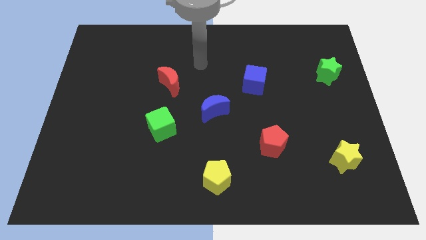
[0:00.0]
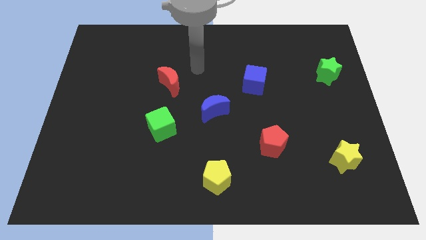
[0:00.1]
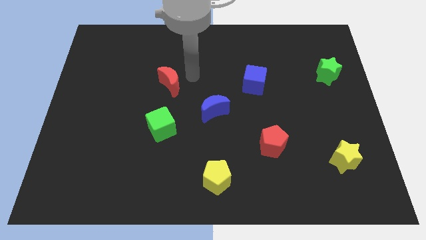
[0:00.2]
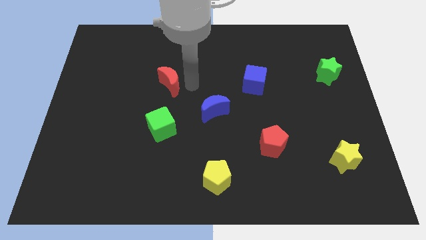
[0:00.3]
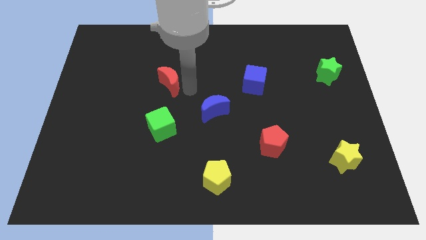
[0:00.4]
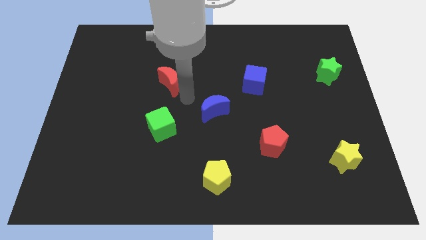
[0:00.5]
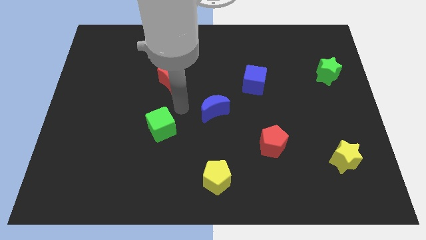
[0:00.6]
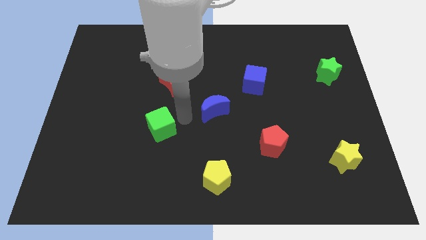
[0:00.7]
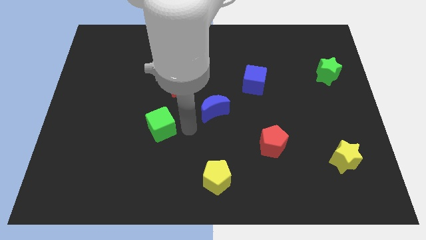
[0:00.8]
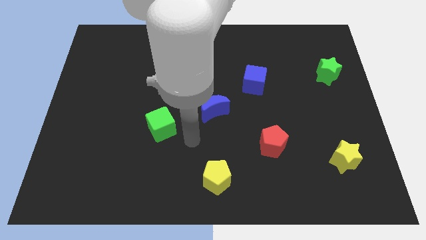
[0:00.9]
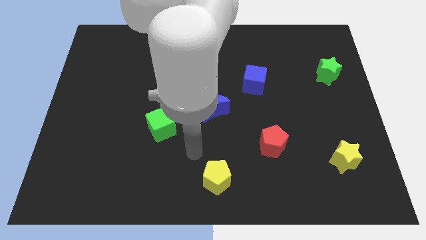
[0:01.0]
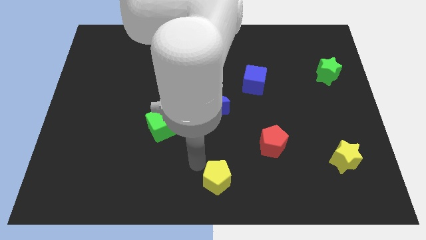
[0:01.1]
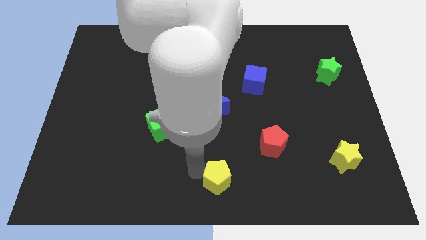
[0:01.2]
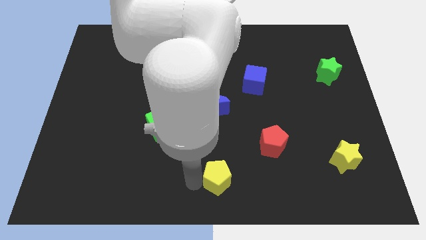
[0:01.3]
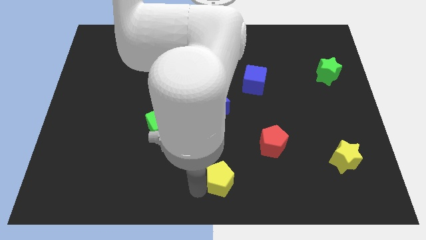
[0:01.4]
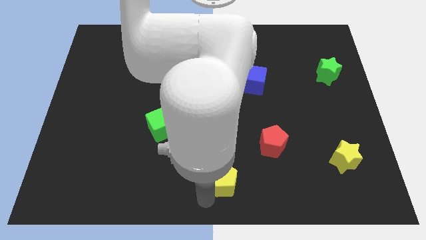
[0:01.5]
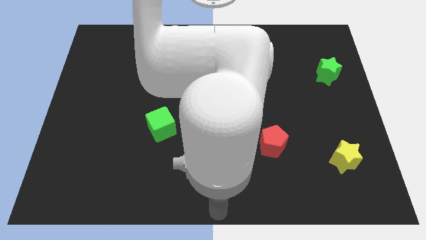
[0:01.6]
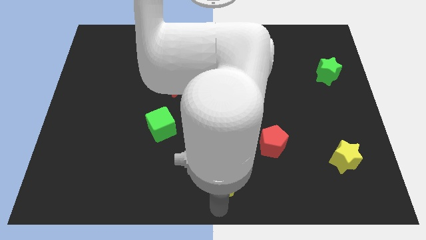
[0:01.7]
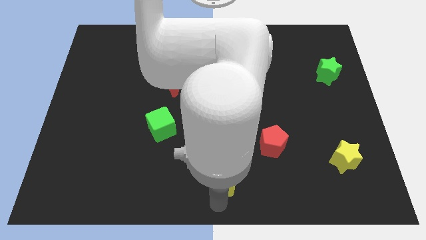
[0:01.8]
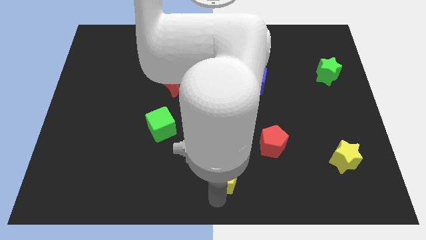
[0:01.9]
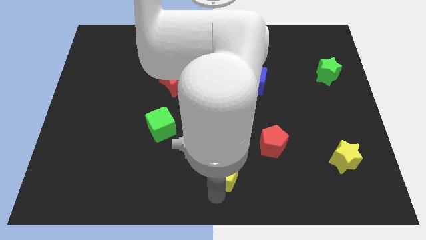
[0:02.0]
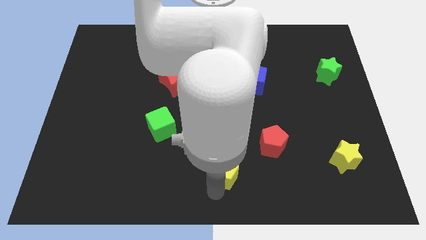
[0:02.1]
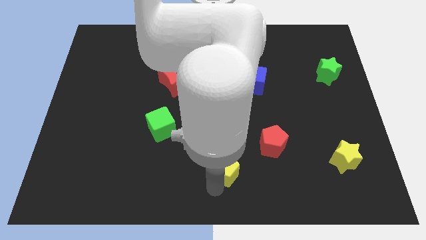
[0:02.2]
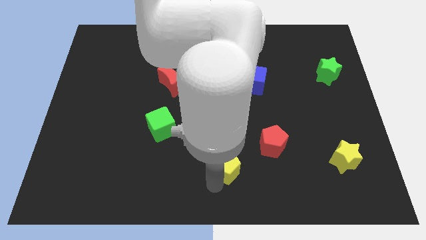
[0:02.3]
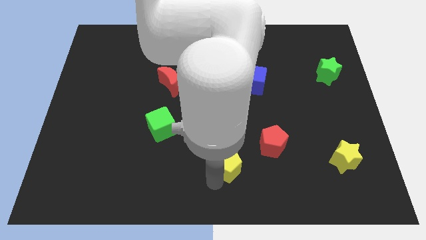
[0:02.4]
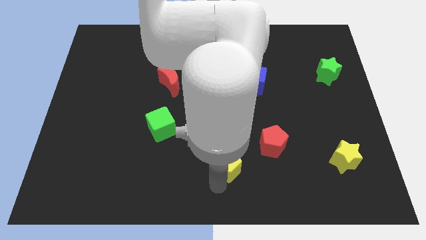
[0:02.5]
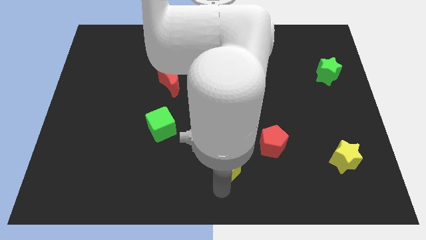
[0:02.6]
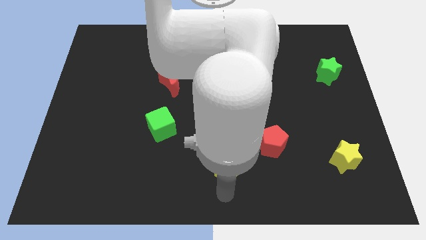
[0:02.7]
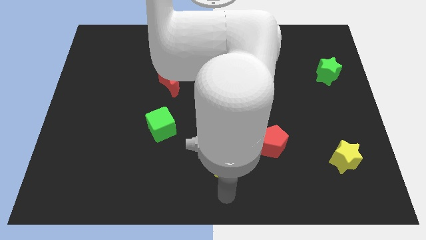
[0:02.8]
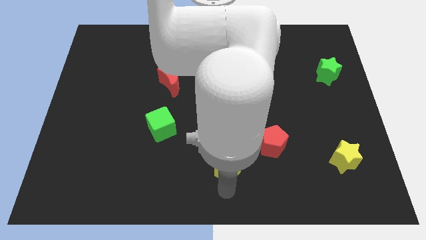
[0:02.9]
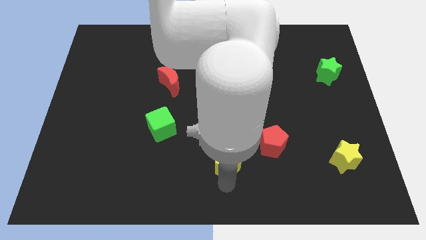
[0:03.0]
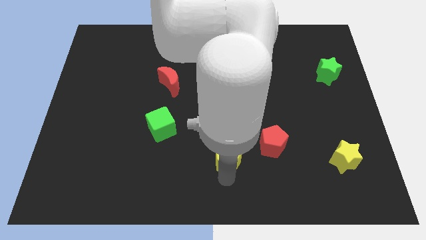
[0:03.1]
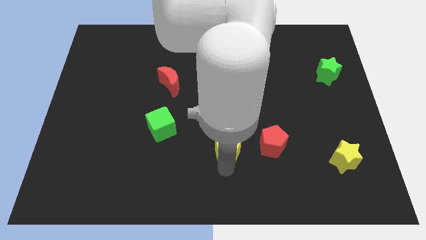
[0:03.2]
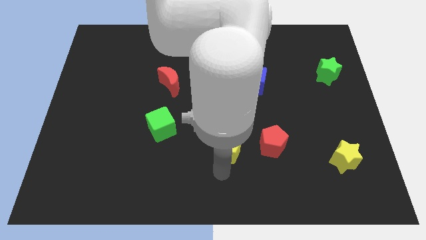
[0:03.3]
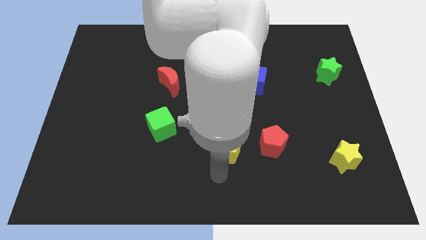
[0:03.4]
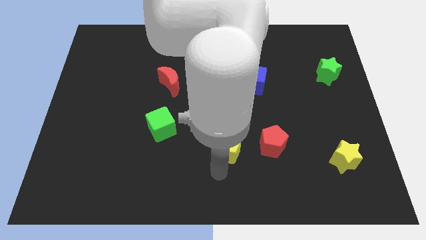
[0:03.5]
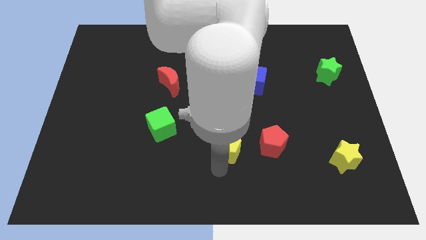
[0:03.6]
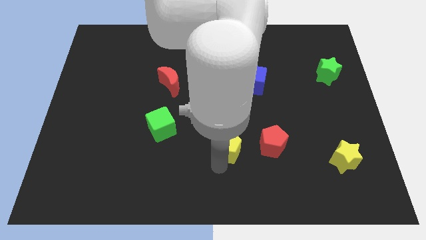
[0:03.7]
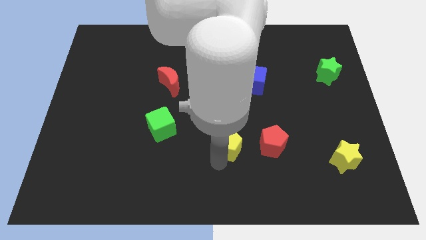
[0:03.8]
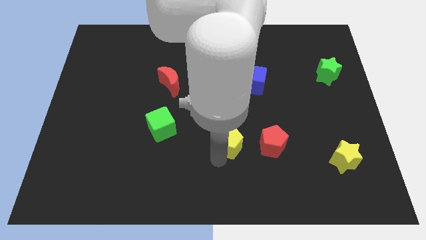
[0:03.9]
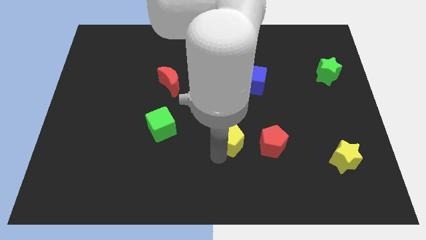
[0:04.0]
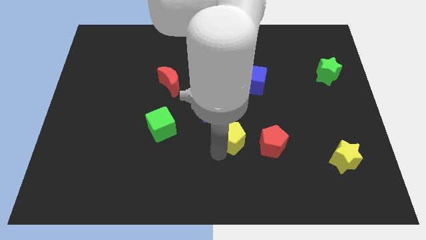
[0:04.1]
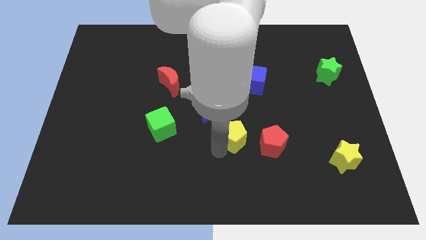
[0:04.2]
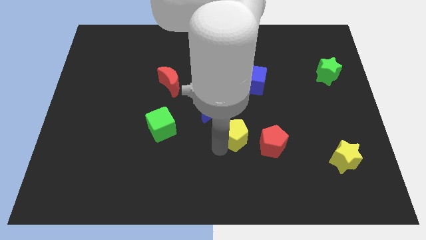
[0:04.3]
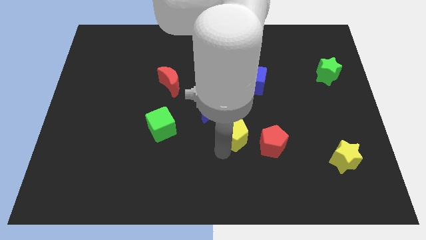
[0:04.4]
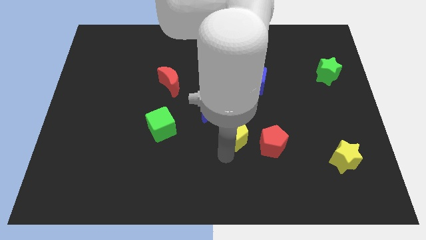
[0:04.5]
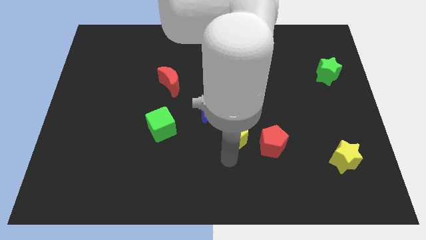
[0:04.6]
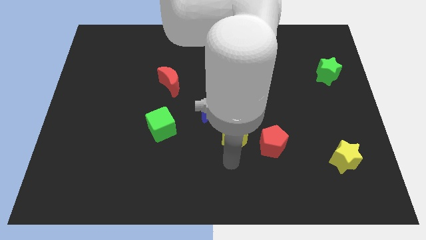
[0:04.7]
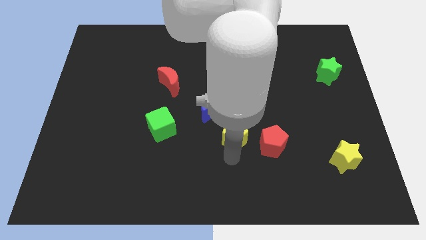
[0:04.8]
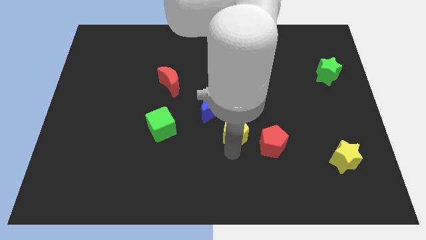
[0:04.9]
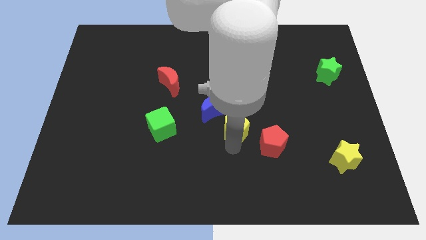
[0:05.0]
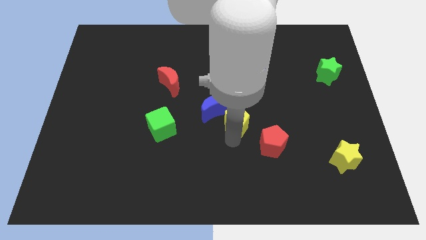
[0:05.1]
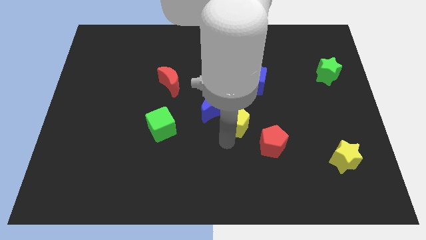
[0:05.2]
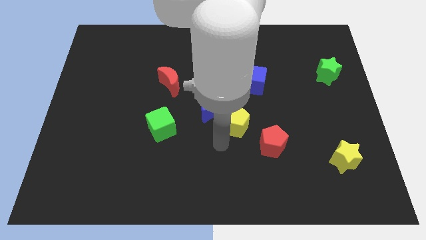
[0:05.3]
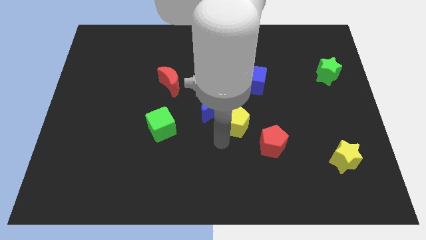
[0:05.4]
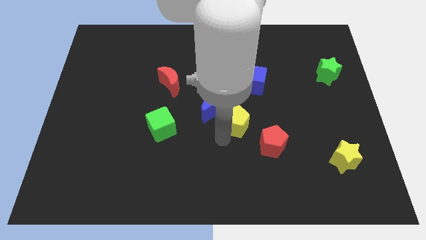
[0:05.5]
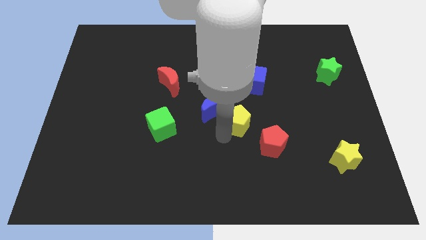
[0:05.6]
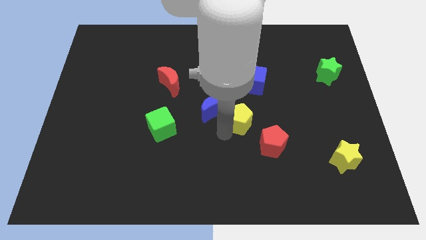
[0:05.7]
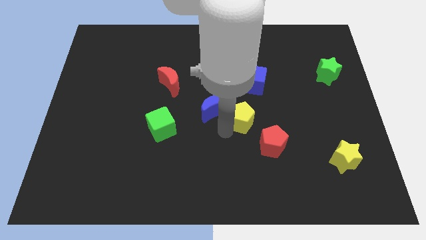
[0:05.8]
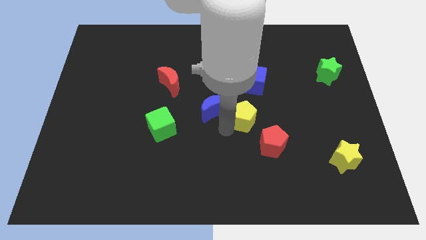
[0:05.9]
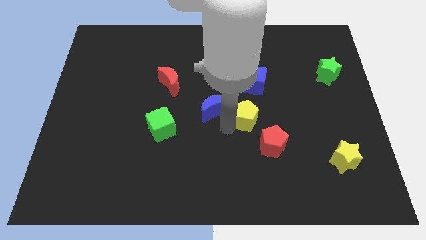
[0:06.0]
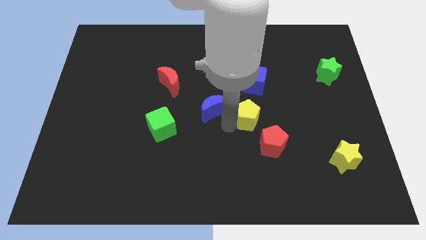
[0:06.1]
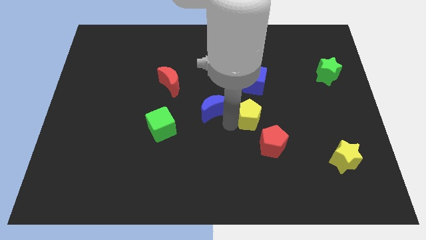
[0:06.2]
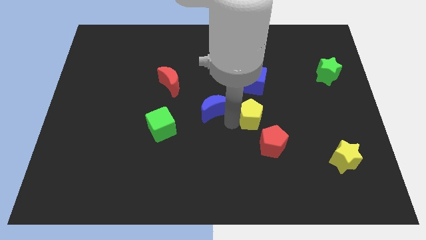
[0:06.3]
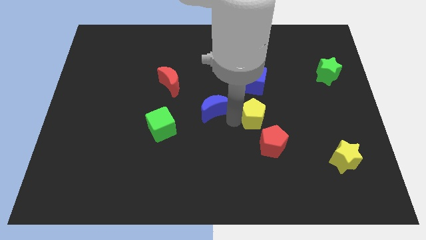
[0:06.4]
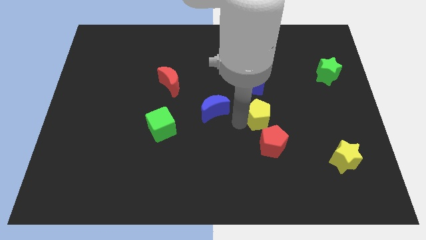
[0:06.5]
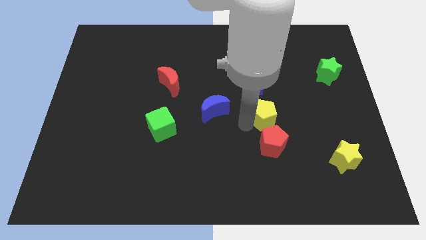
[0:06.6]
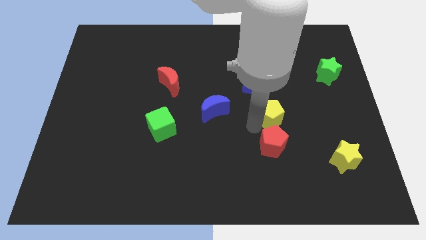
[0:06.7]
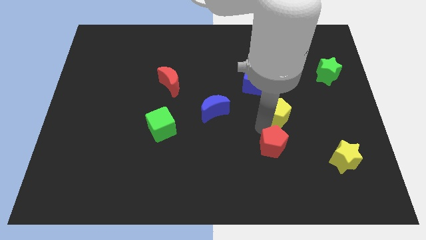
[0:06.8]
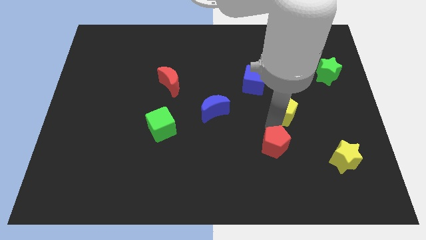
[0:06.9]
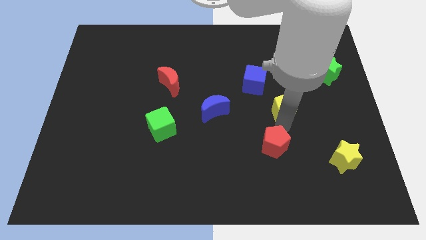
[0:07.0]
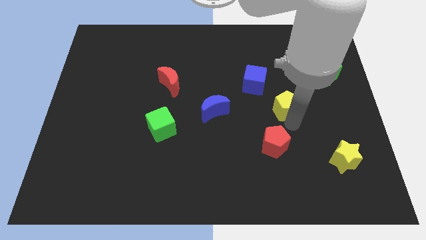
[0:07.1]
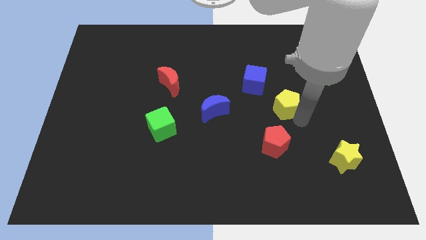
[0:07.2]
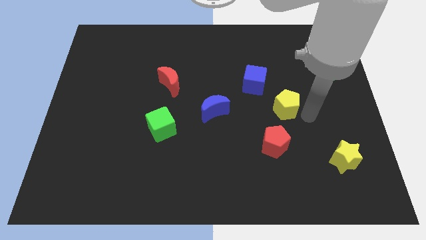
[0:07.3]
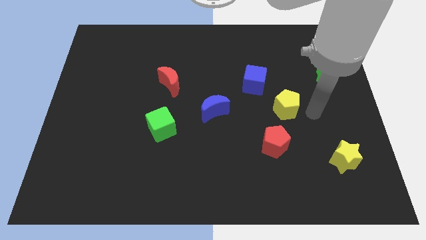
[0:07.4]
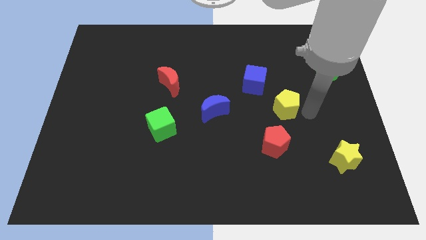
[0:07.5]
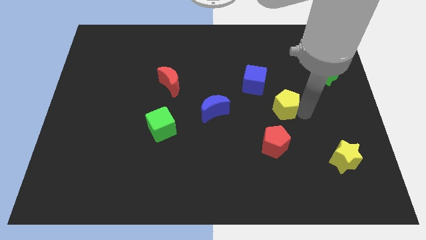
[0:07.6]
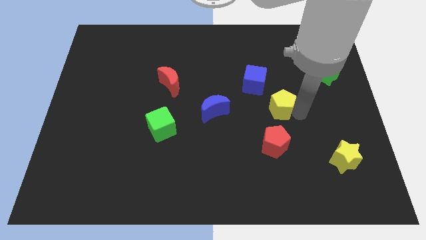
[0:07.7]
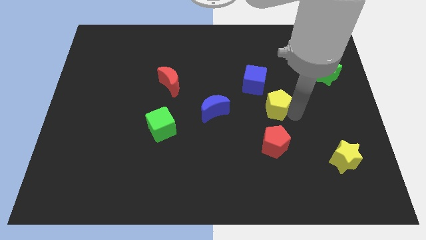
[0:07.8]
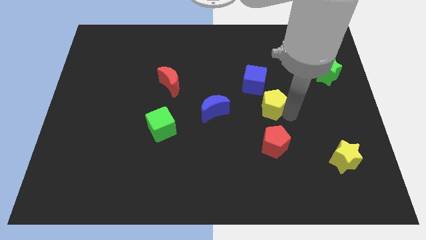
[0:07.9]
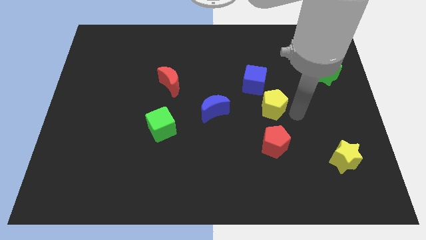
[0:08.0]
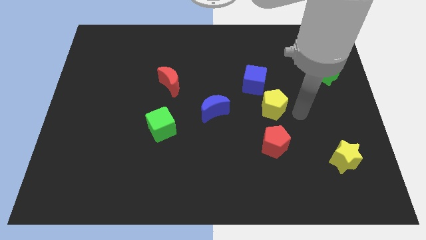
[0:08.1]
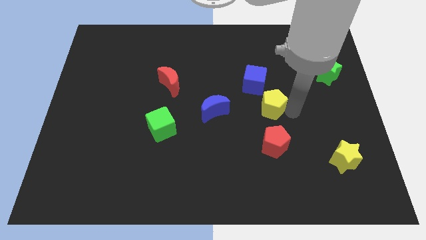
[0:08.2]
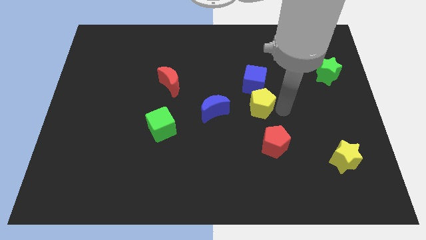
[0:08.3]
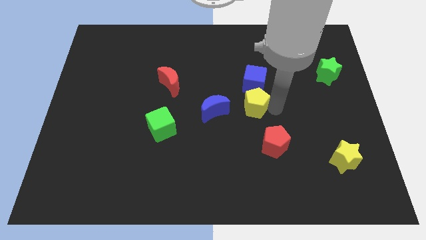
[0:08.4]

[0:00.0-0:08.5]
move the yellow pentagon diagonally down and to the left of the blue cube
